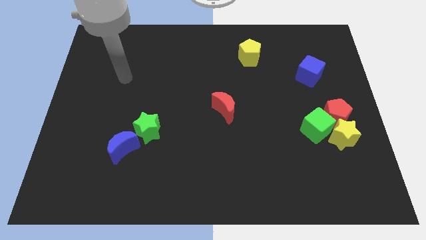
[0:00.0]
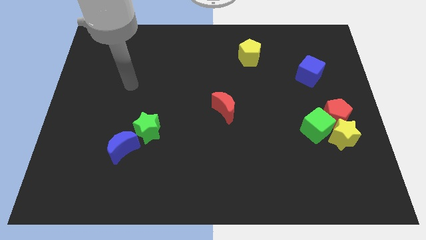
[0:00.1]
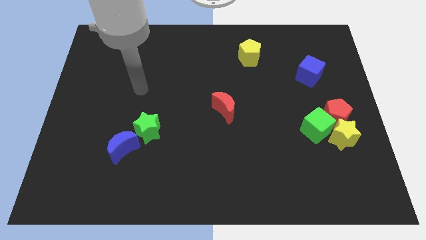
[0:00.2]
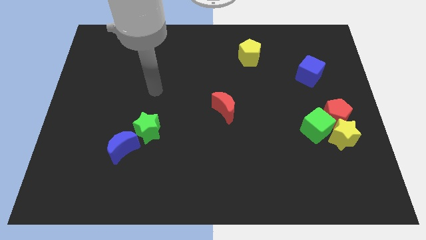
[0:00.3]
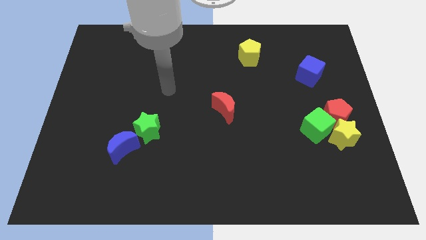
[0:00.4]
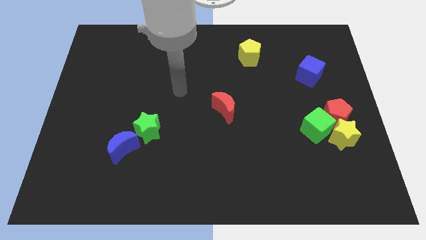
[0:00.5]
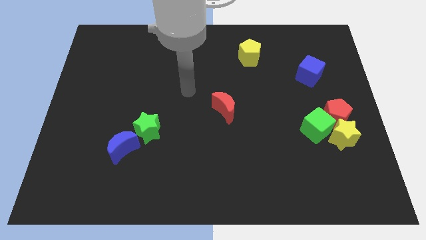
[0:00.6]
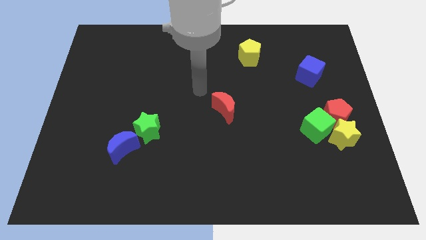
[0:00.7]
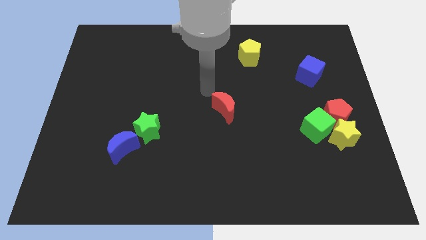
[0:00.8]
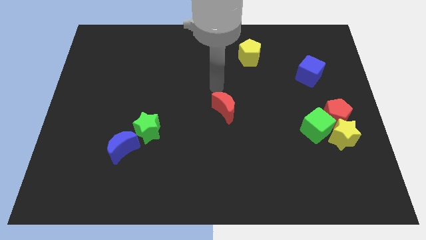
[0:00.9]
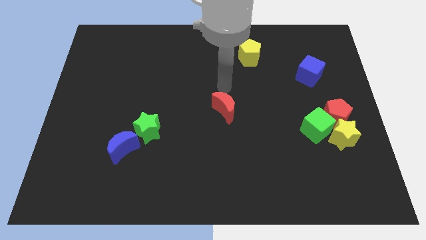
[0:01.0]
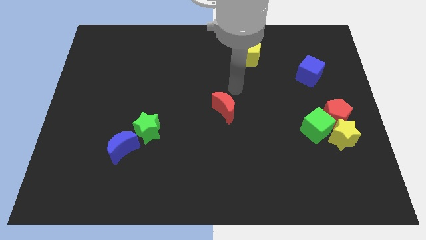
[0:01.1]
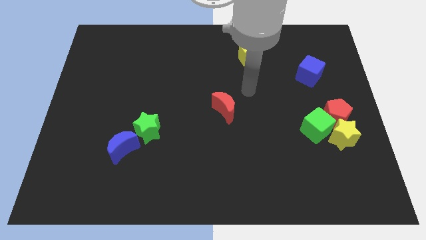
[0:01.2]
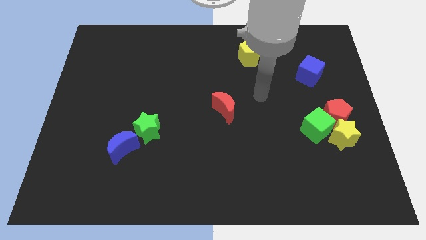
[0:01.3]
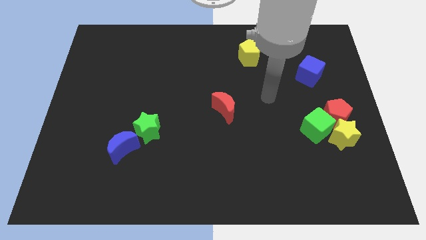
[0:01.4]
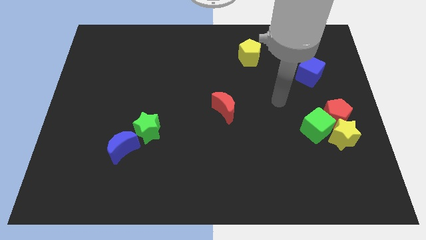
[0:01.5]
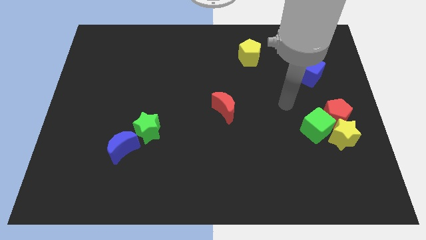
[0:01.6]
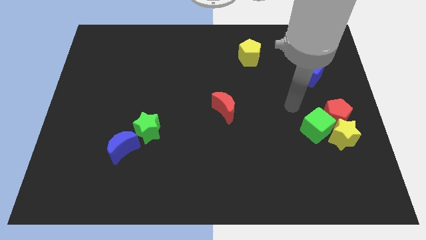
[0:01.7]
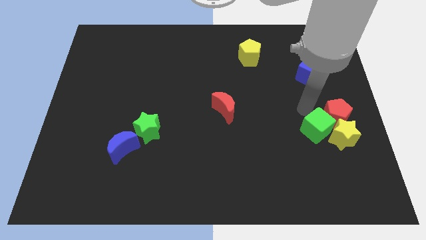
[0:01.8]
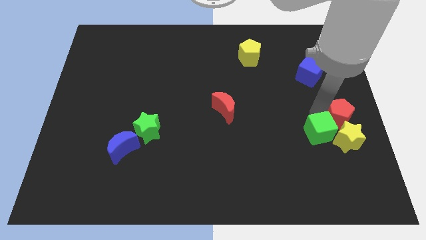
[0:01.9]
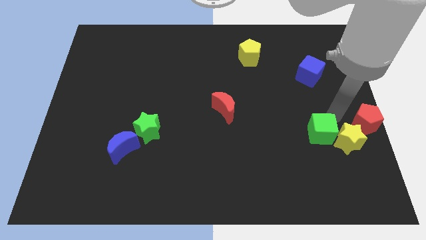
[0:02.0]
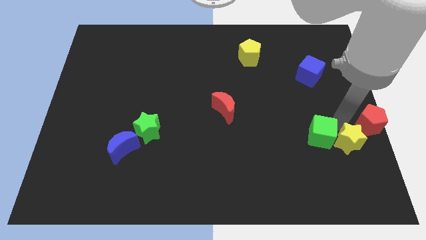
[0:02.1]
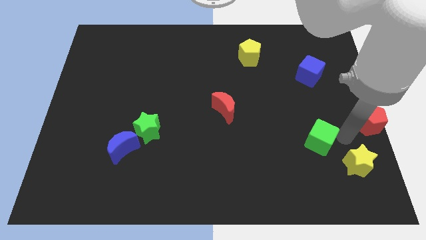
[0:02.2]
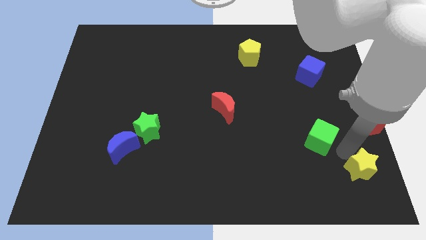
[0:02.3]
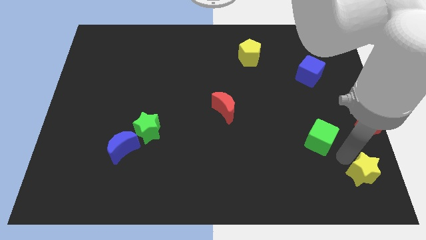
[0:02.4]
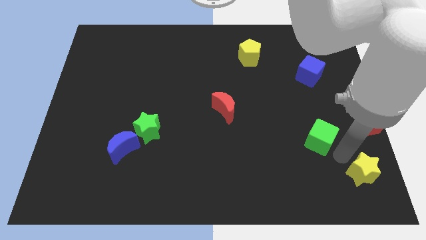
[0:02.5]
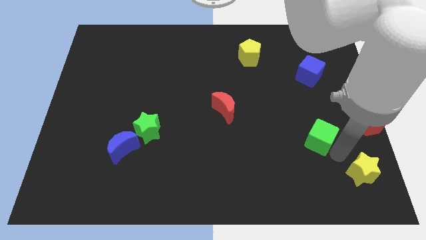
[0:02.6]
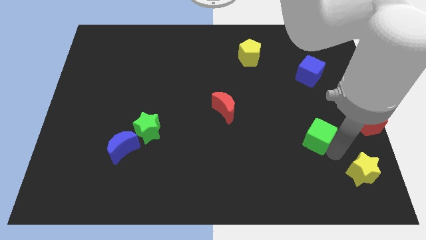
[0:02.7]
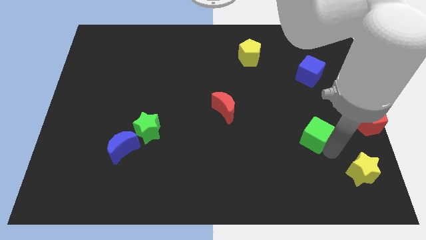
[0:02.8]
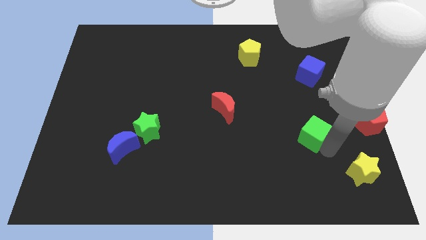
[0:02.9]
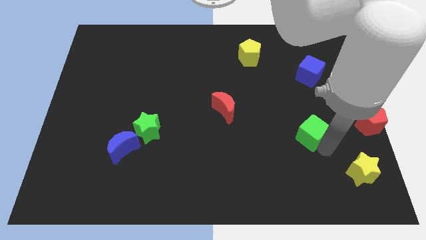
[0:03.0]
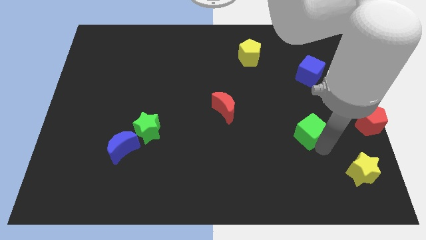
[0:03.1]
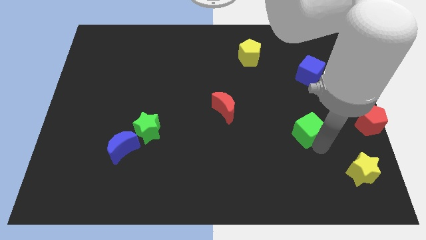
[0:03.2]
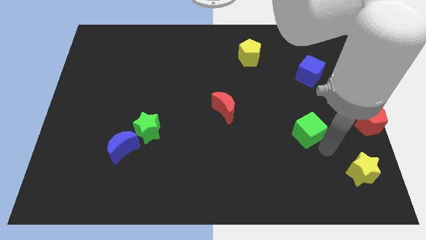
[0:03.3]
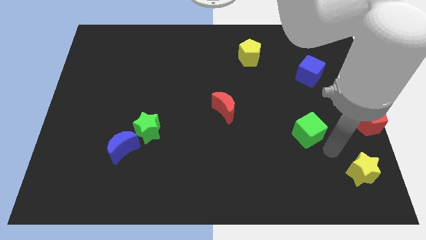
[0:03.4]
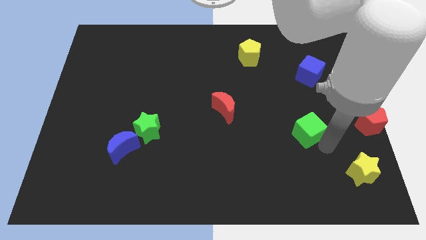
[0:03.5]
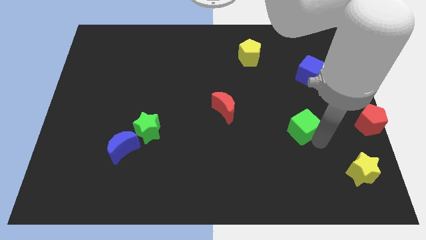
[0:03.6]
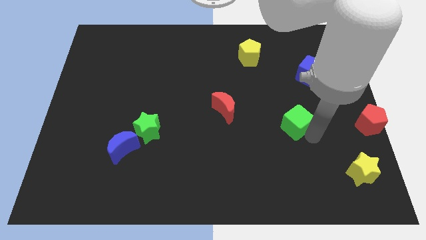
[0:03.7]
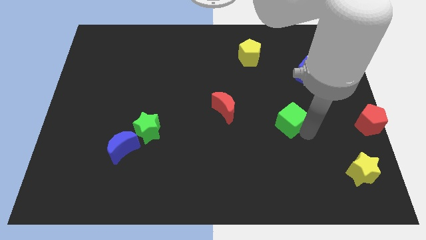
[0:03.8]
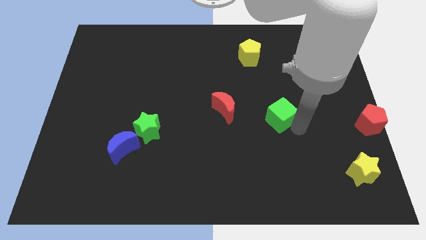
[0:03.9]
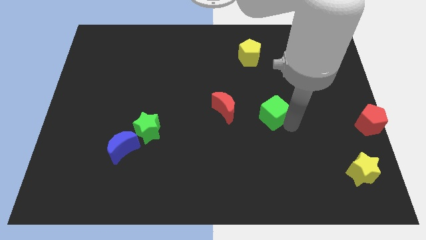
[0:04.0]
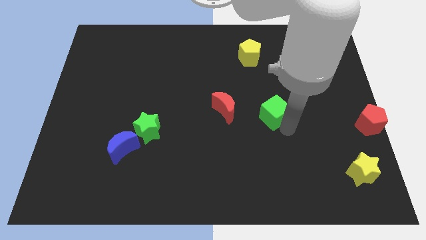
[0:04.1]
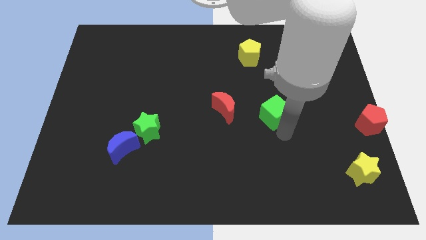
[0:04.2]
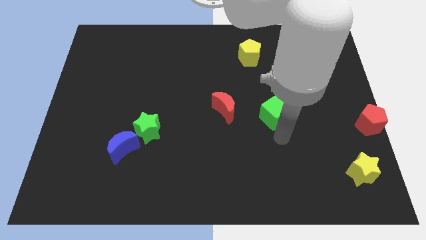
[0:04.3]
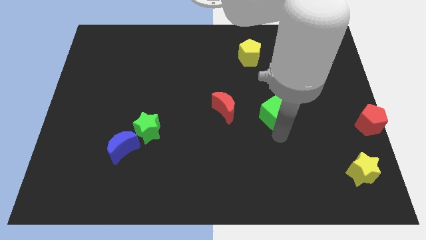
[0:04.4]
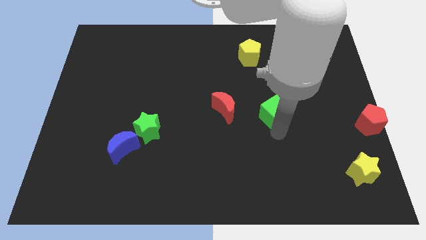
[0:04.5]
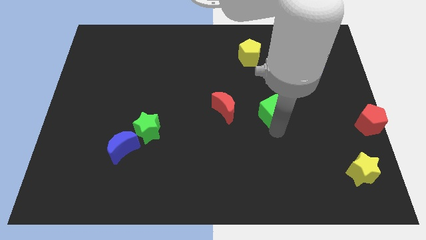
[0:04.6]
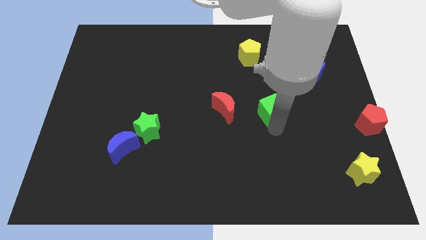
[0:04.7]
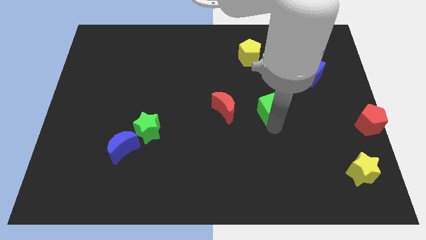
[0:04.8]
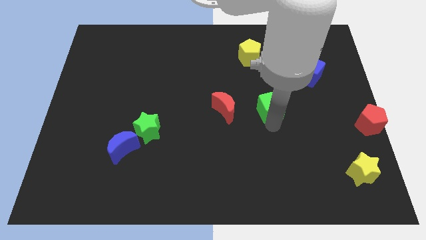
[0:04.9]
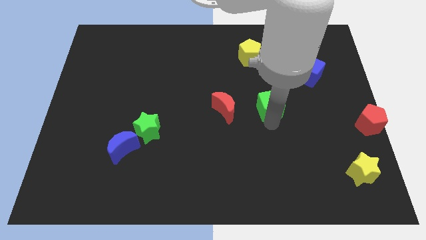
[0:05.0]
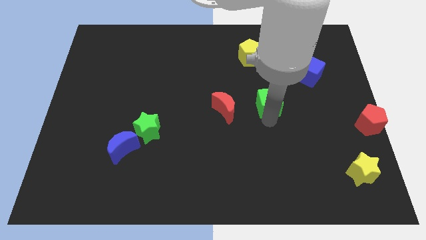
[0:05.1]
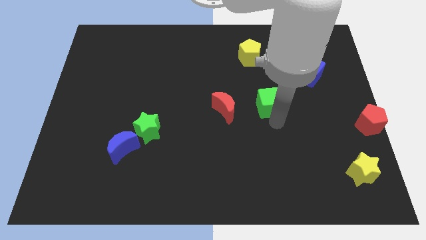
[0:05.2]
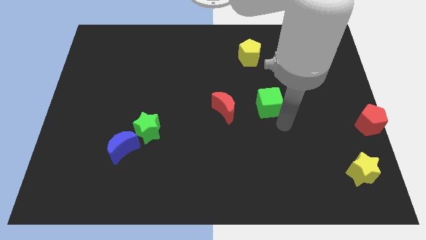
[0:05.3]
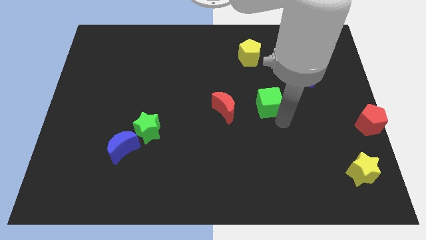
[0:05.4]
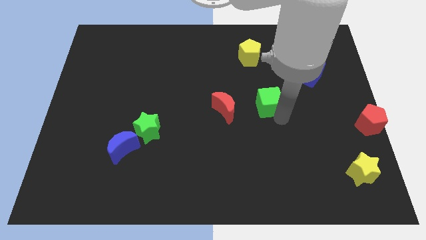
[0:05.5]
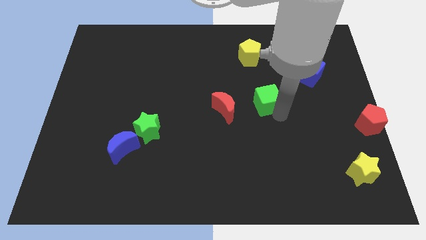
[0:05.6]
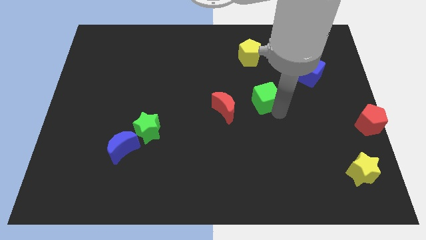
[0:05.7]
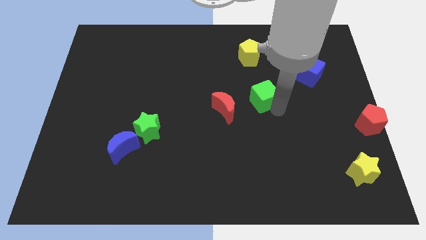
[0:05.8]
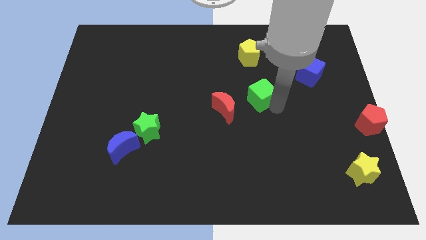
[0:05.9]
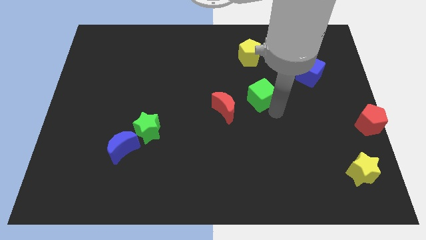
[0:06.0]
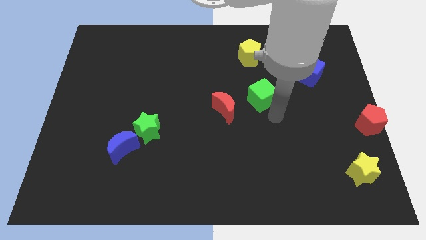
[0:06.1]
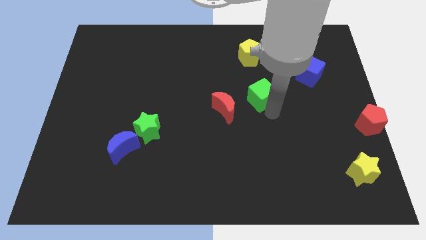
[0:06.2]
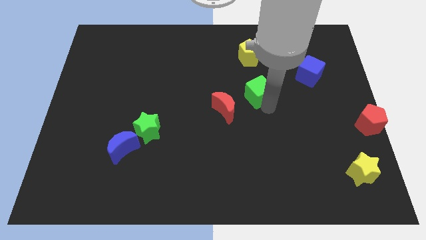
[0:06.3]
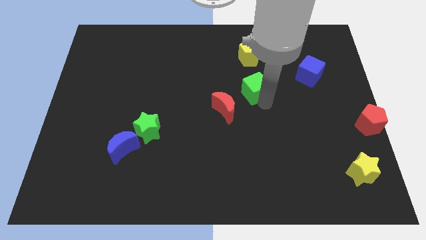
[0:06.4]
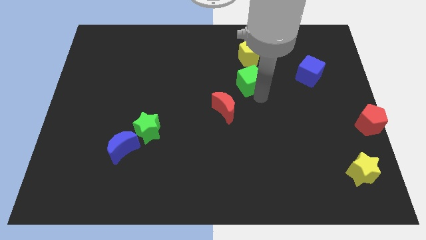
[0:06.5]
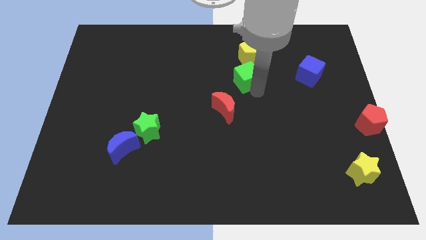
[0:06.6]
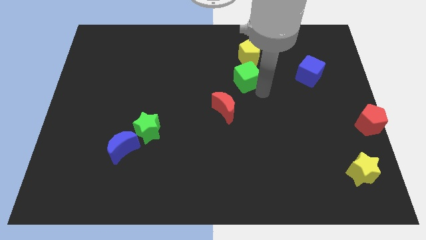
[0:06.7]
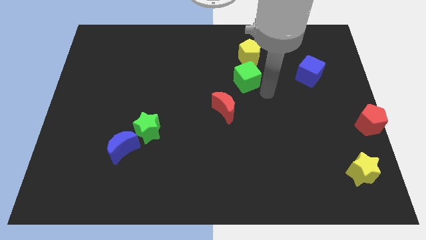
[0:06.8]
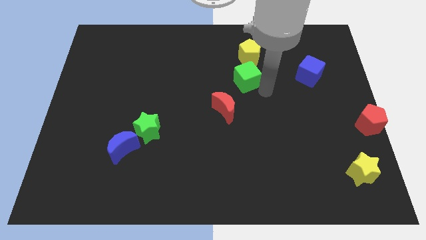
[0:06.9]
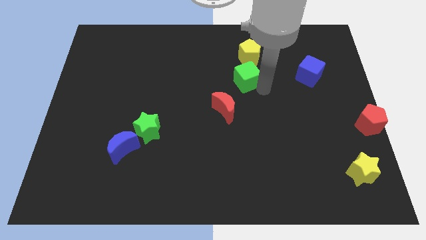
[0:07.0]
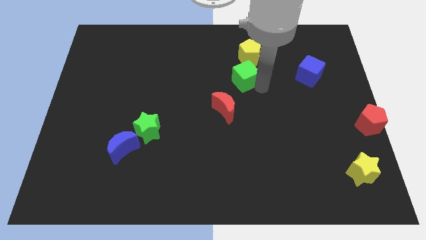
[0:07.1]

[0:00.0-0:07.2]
push the green cube to the bottom left side of the yellow pentagon
